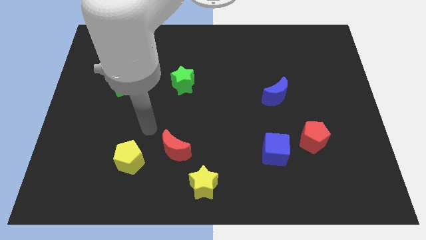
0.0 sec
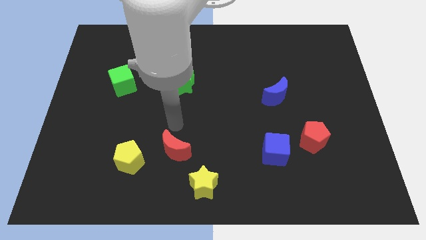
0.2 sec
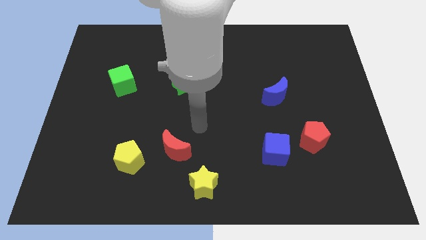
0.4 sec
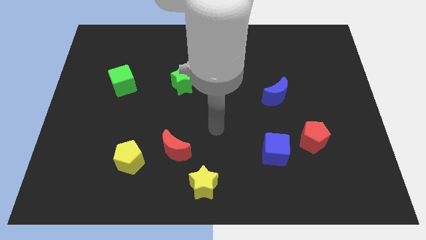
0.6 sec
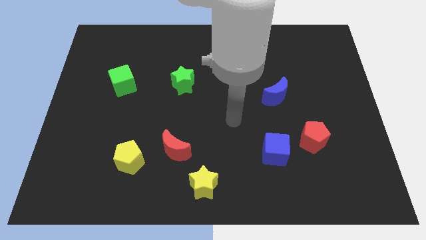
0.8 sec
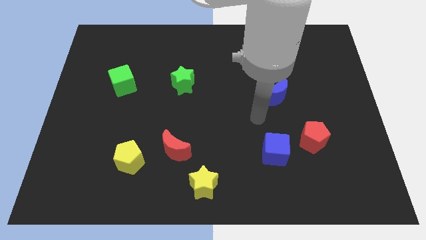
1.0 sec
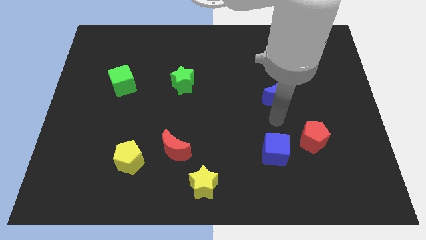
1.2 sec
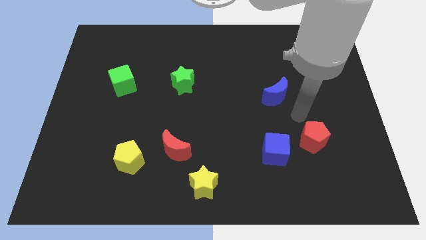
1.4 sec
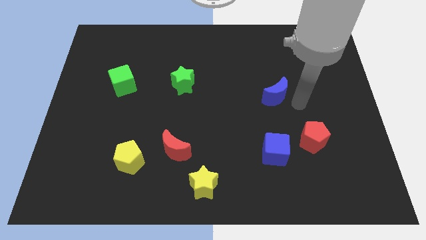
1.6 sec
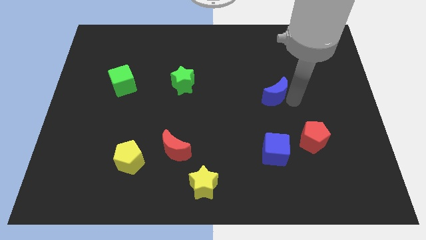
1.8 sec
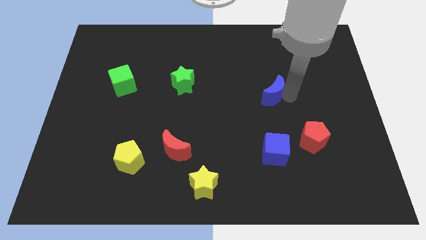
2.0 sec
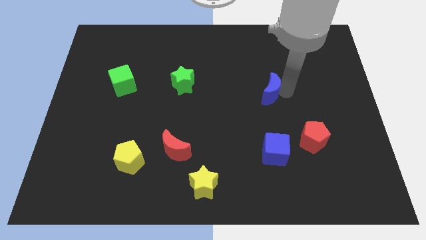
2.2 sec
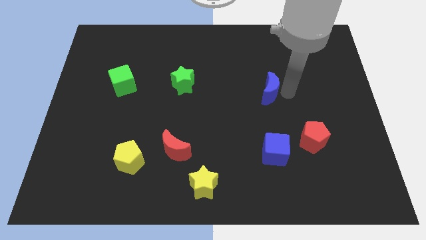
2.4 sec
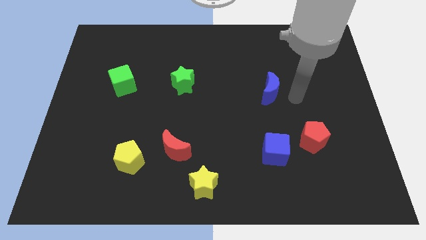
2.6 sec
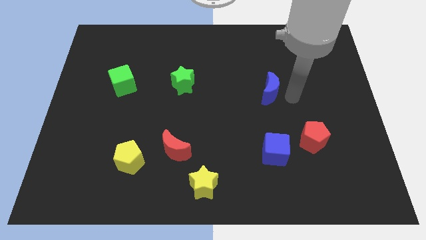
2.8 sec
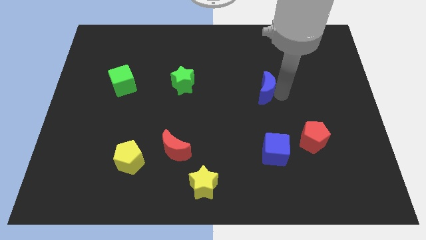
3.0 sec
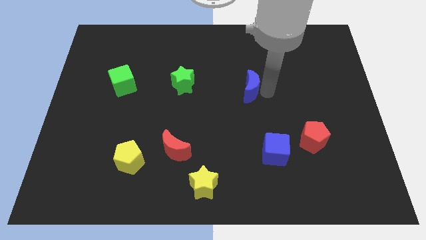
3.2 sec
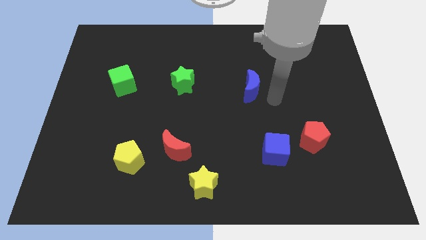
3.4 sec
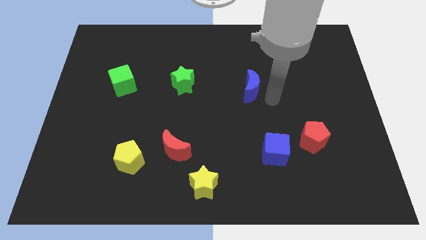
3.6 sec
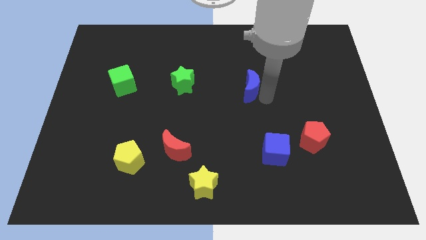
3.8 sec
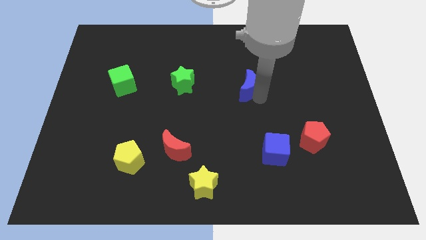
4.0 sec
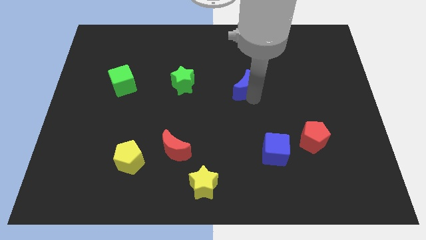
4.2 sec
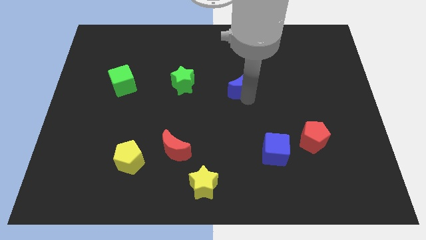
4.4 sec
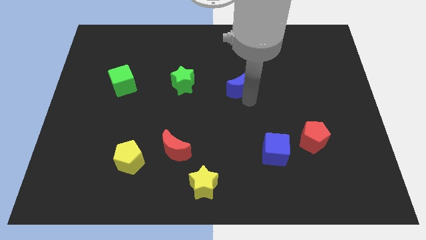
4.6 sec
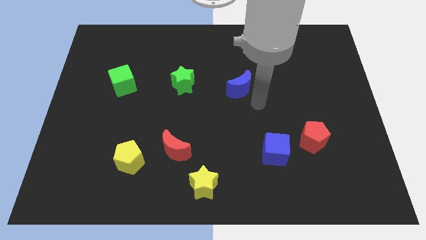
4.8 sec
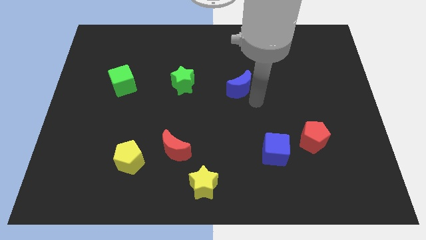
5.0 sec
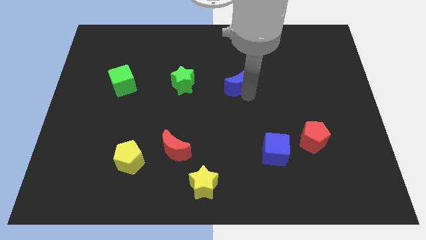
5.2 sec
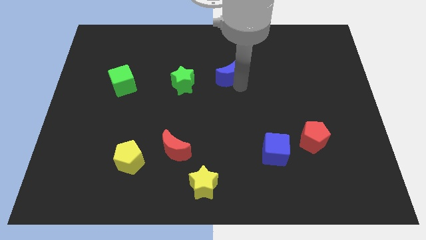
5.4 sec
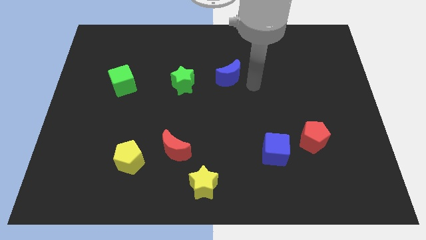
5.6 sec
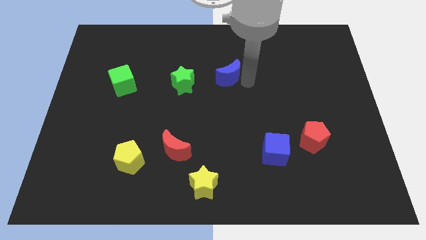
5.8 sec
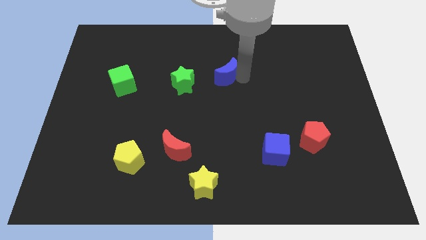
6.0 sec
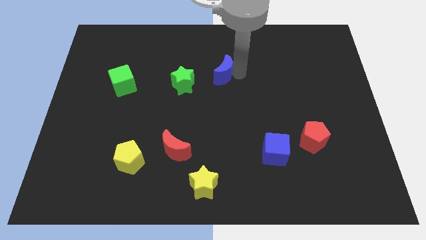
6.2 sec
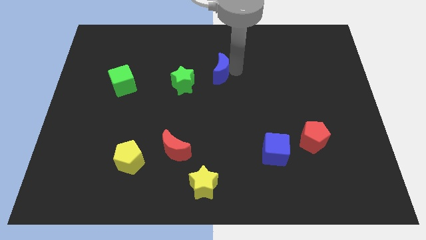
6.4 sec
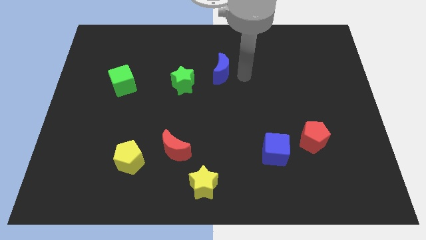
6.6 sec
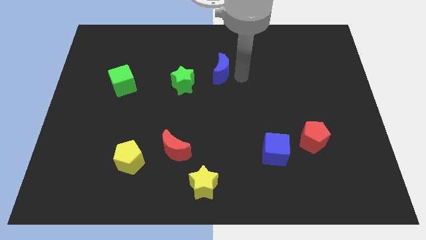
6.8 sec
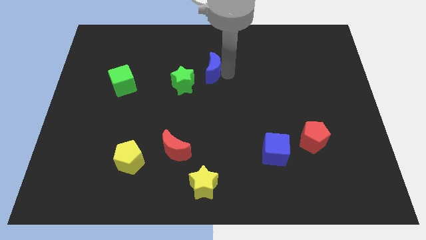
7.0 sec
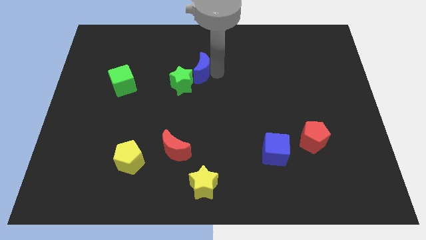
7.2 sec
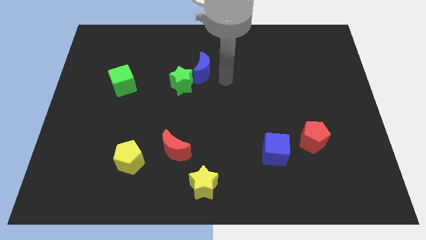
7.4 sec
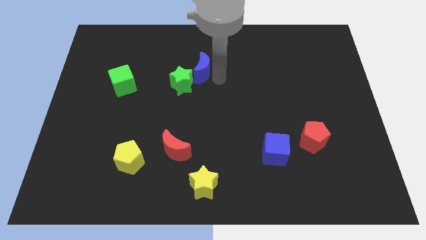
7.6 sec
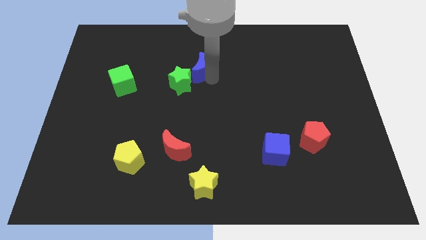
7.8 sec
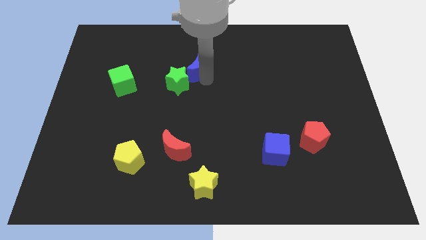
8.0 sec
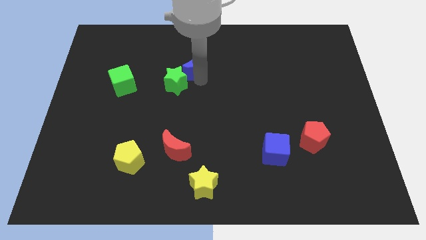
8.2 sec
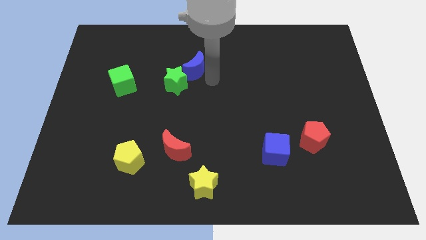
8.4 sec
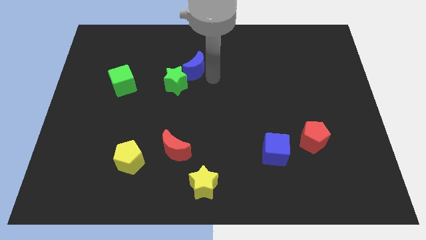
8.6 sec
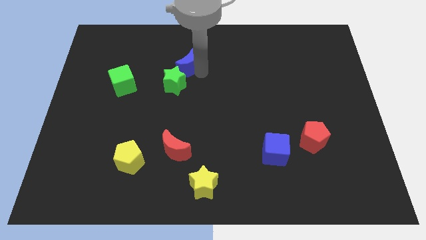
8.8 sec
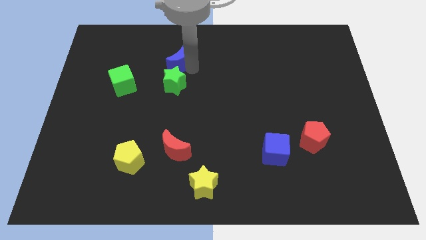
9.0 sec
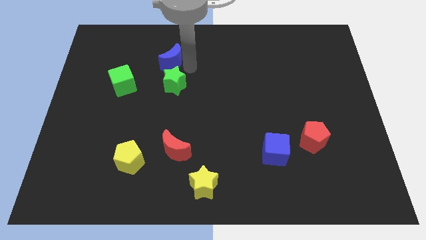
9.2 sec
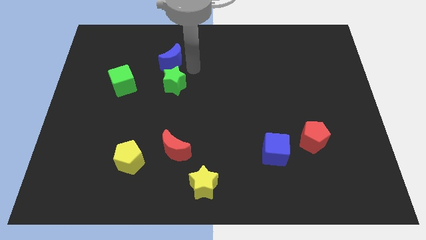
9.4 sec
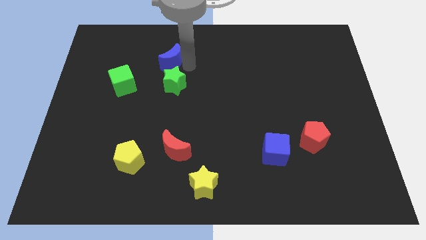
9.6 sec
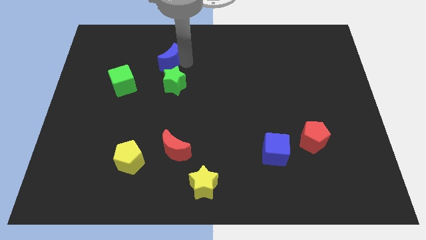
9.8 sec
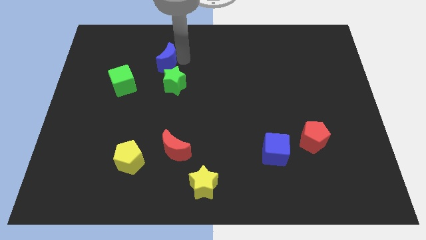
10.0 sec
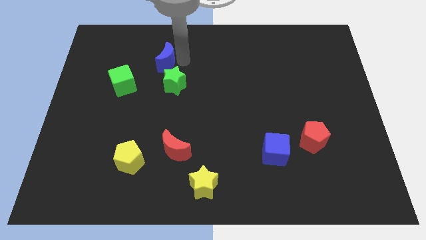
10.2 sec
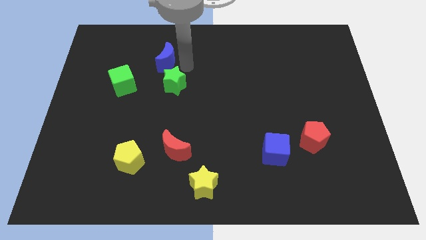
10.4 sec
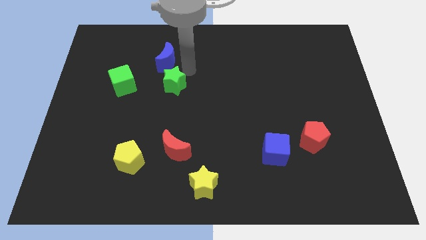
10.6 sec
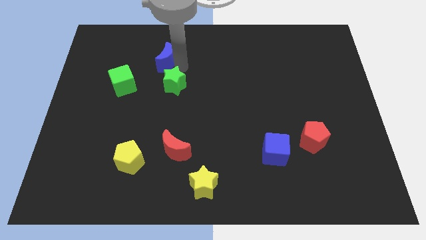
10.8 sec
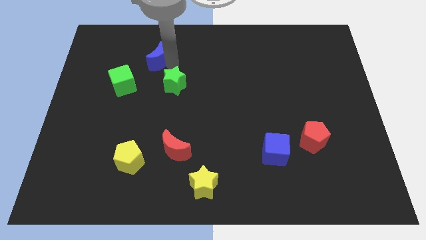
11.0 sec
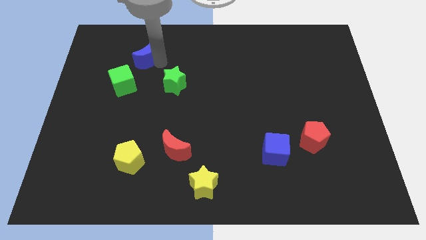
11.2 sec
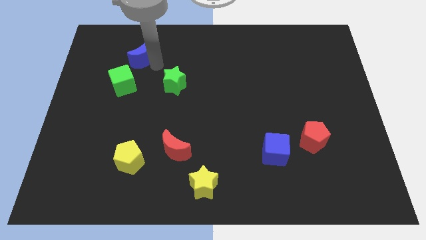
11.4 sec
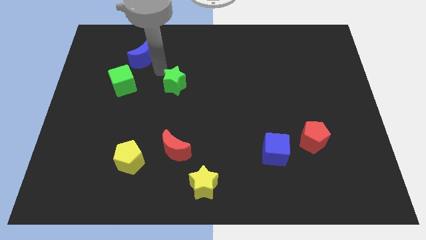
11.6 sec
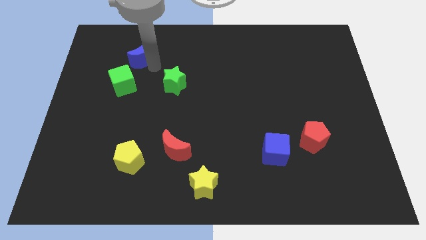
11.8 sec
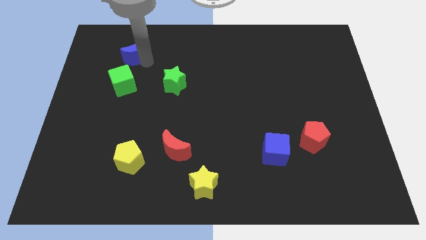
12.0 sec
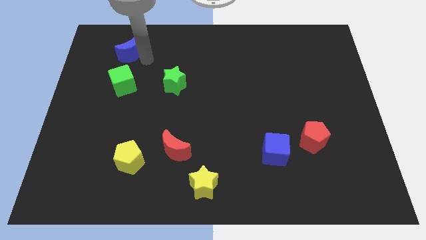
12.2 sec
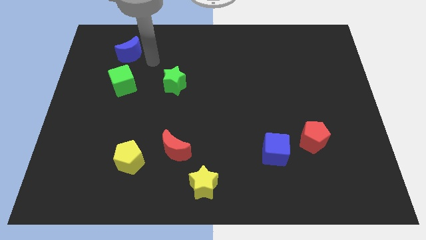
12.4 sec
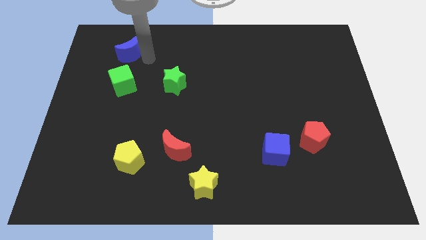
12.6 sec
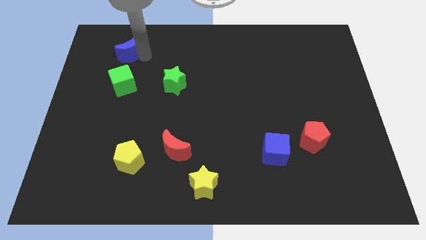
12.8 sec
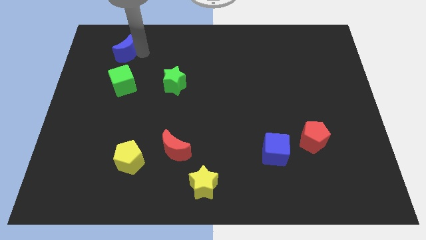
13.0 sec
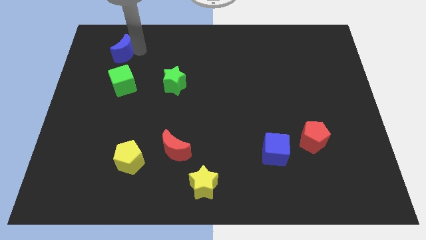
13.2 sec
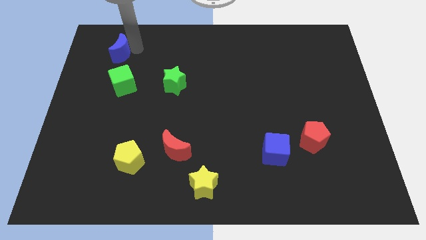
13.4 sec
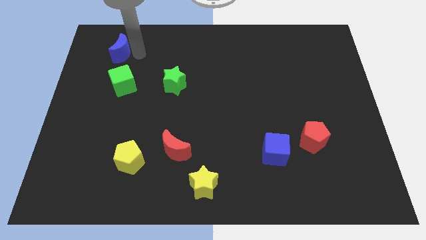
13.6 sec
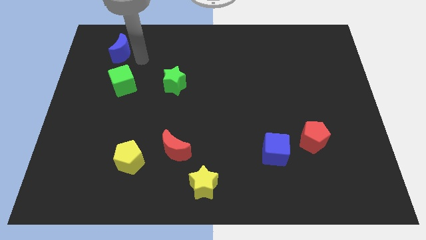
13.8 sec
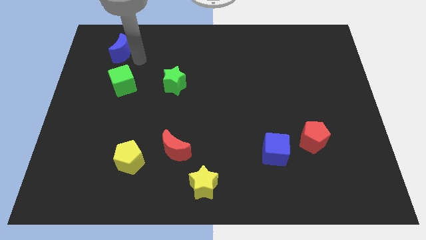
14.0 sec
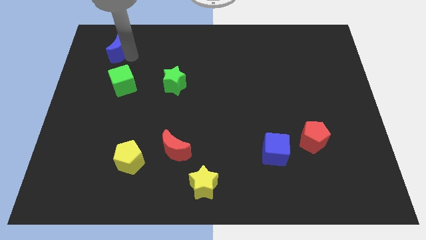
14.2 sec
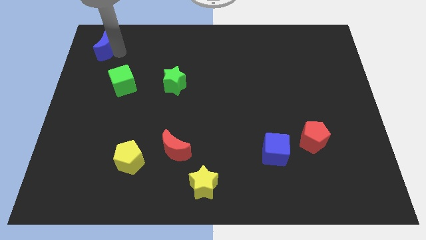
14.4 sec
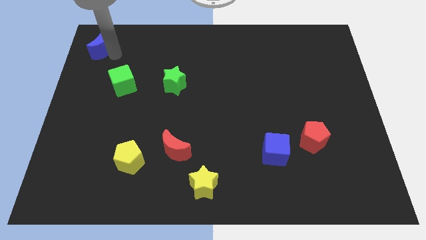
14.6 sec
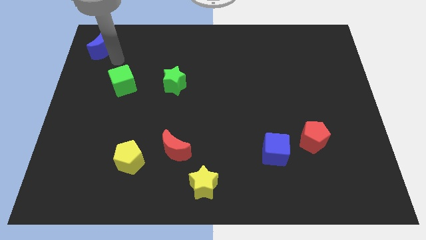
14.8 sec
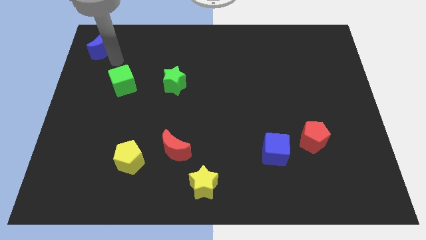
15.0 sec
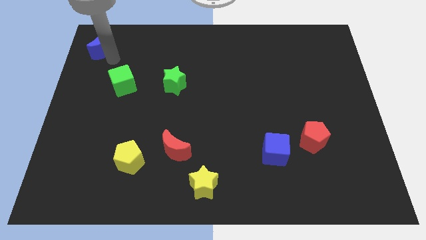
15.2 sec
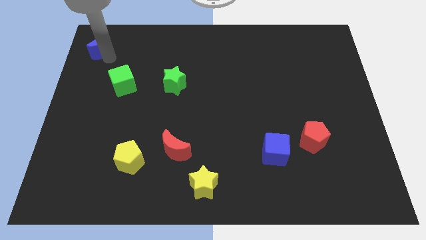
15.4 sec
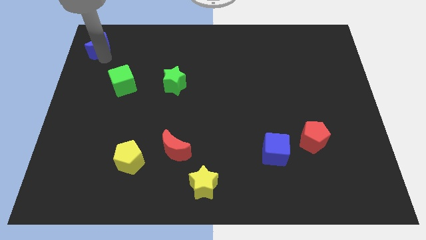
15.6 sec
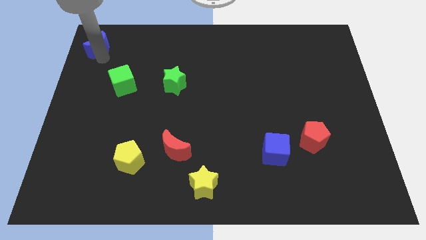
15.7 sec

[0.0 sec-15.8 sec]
slide the blue moon to the top left corner
